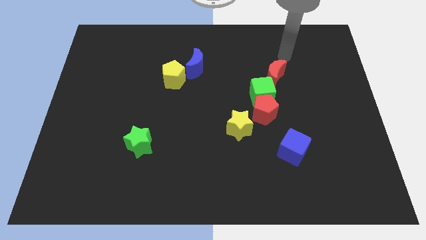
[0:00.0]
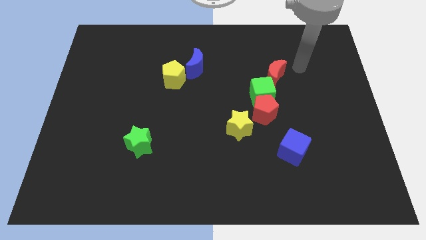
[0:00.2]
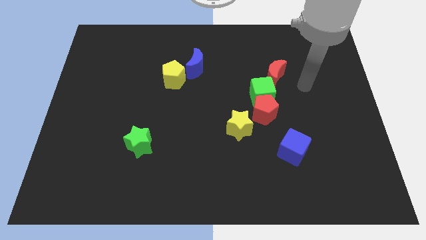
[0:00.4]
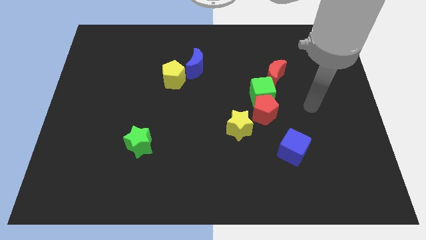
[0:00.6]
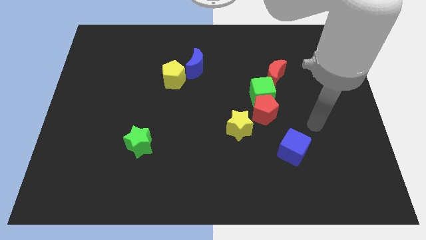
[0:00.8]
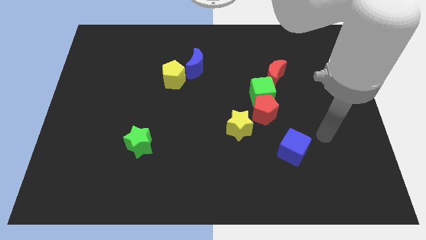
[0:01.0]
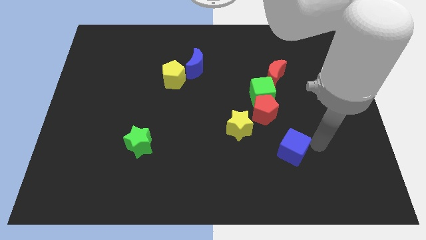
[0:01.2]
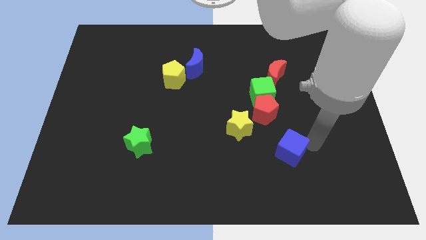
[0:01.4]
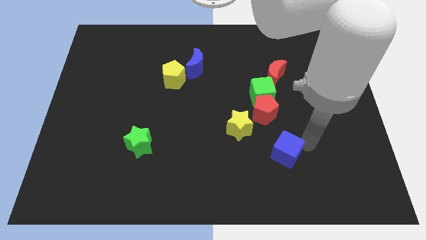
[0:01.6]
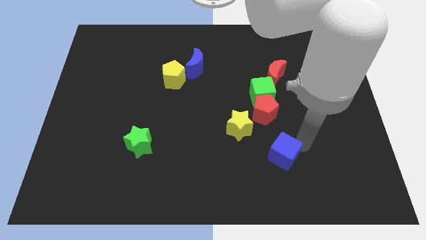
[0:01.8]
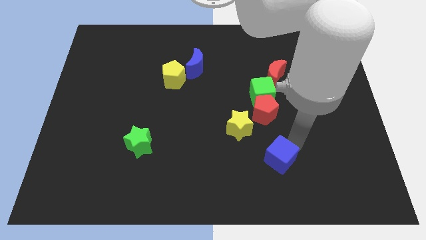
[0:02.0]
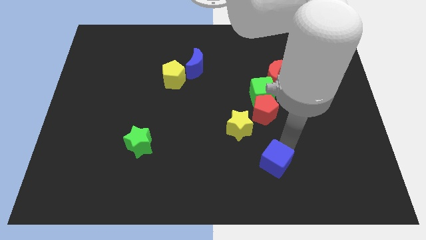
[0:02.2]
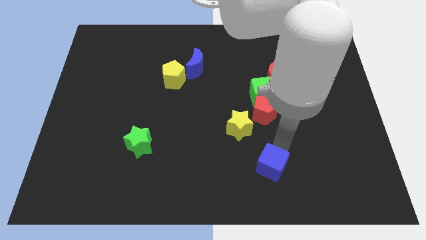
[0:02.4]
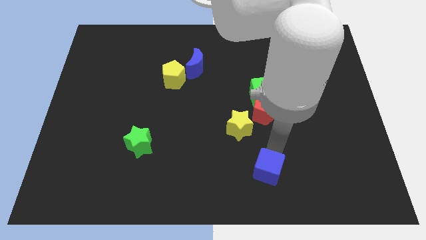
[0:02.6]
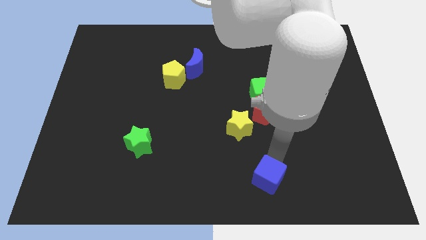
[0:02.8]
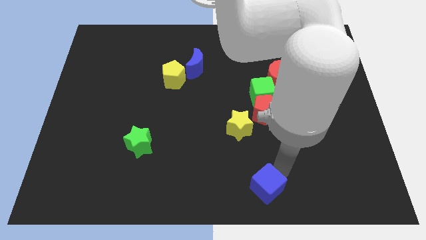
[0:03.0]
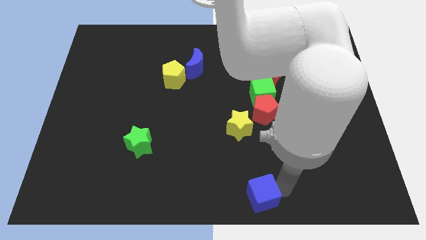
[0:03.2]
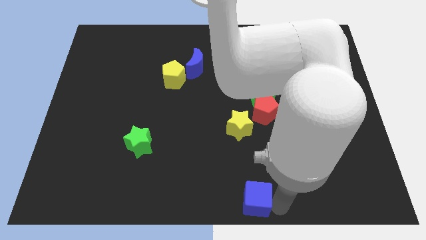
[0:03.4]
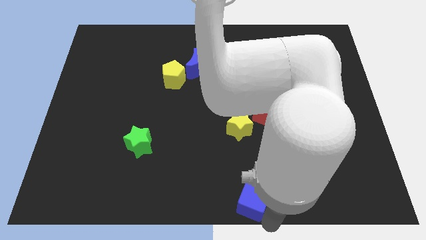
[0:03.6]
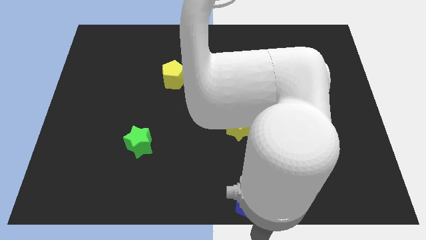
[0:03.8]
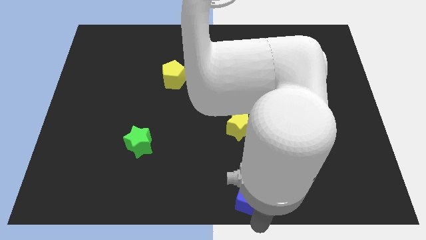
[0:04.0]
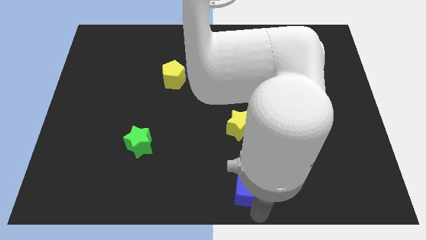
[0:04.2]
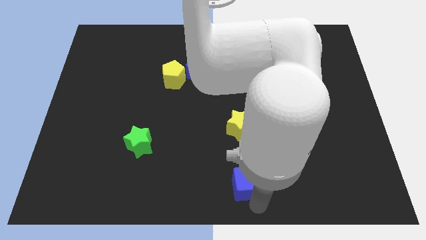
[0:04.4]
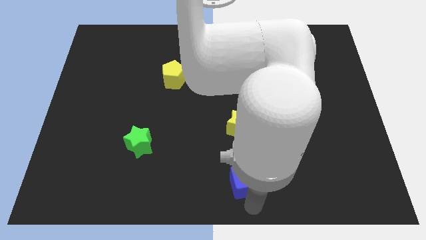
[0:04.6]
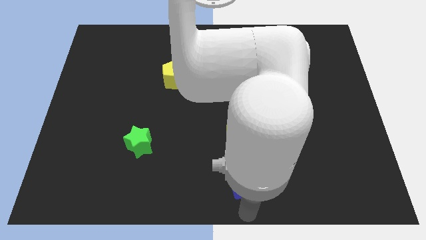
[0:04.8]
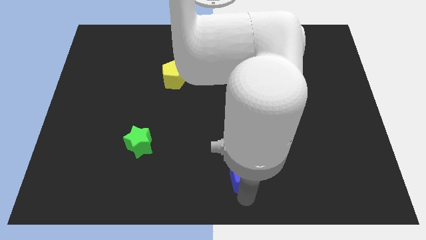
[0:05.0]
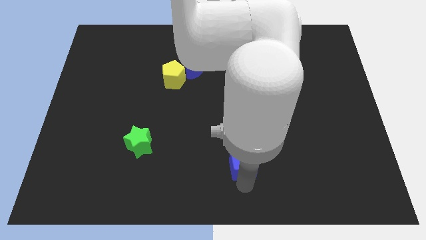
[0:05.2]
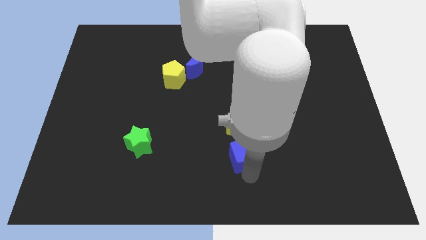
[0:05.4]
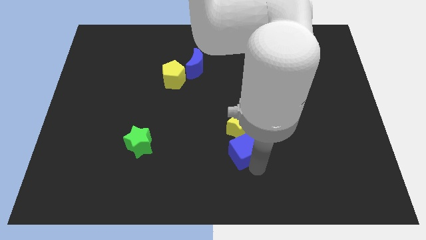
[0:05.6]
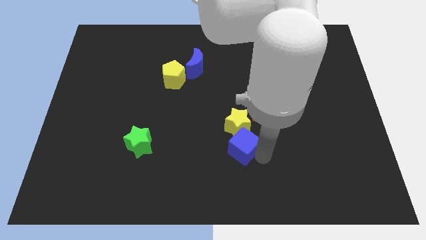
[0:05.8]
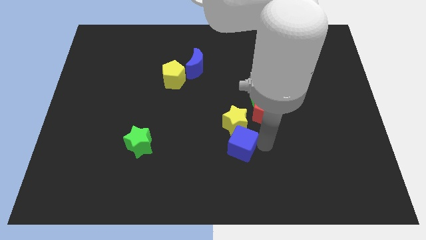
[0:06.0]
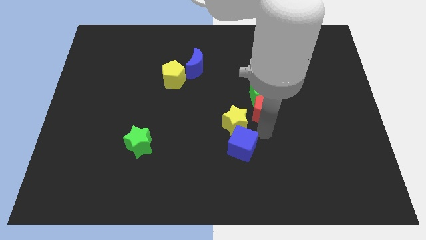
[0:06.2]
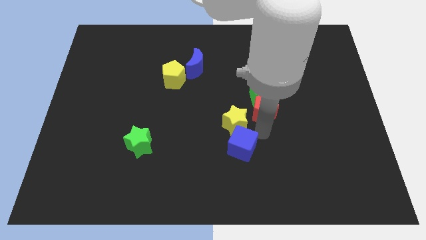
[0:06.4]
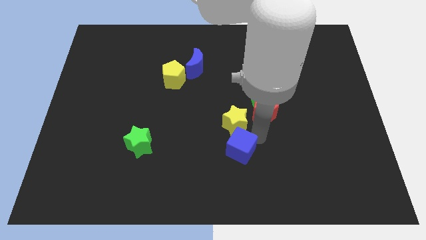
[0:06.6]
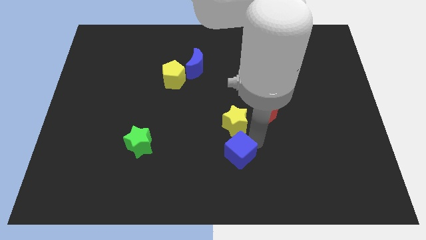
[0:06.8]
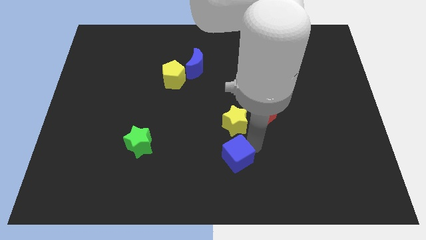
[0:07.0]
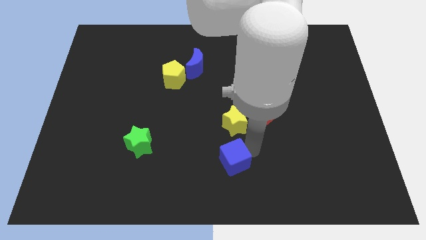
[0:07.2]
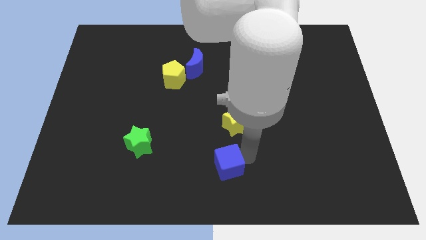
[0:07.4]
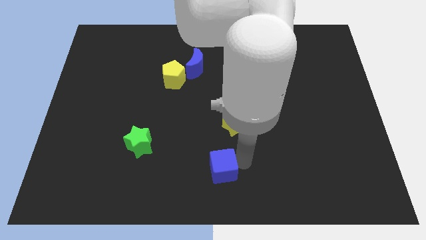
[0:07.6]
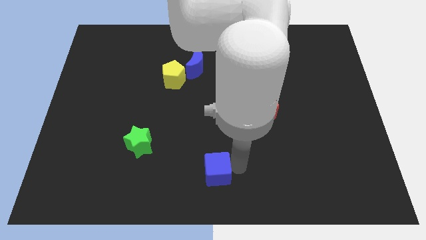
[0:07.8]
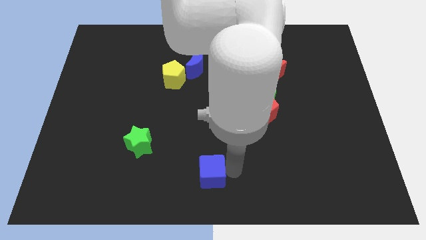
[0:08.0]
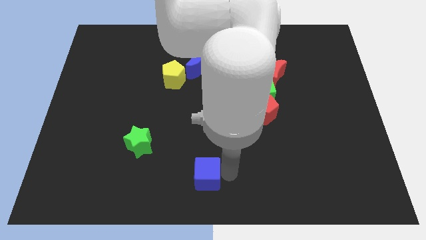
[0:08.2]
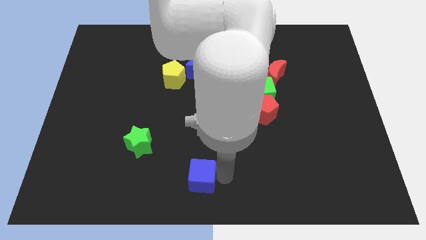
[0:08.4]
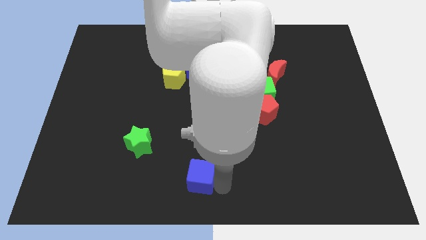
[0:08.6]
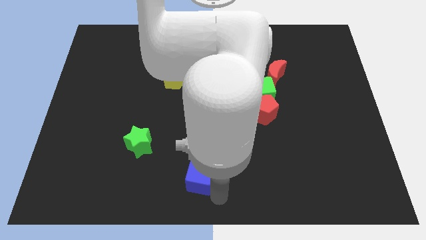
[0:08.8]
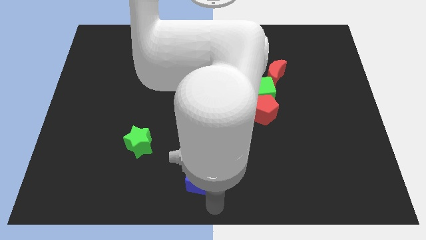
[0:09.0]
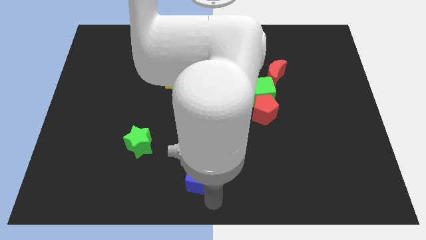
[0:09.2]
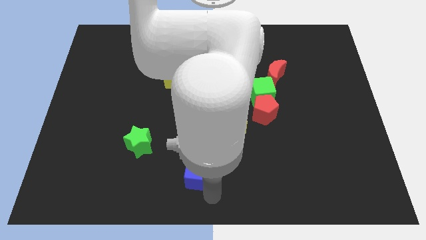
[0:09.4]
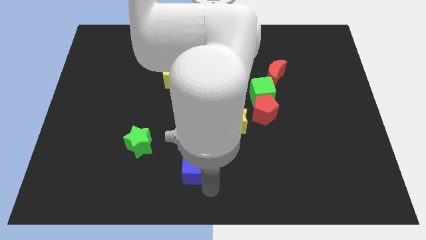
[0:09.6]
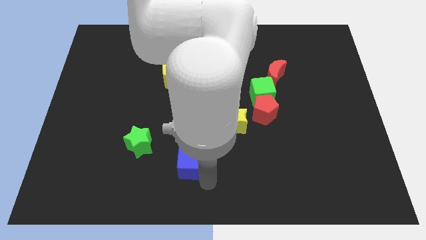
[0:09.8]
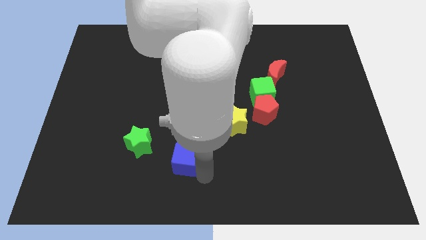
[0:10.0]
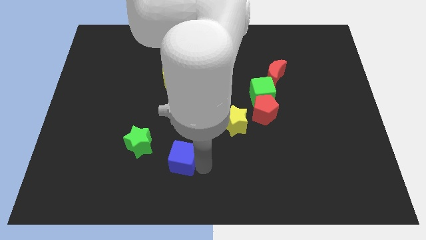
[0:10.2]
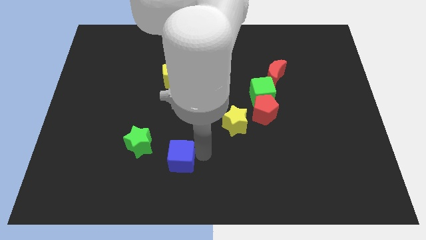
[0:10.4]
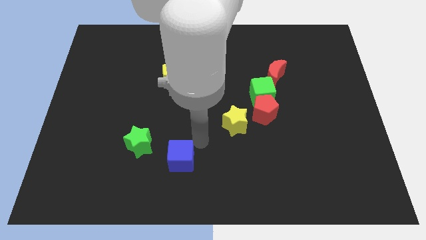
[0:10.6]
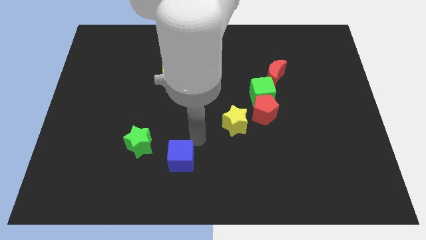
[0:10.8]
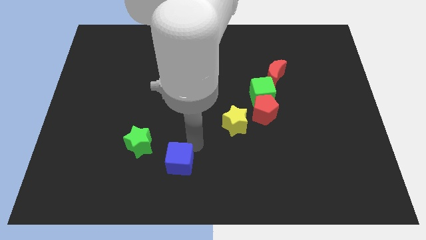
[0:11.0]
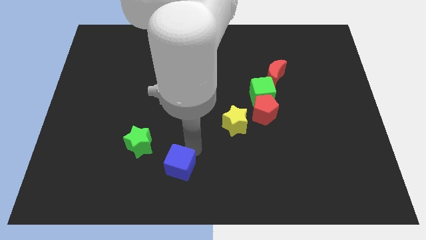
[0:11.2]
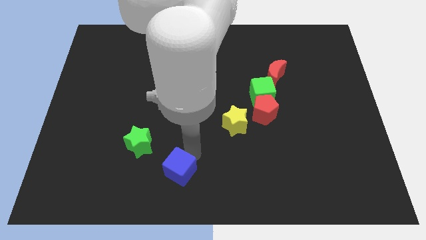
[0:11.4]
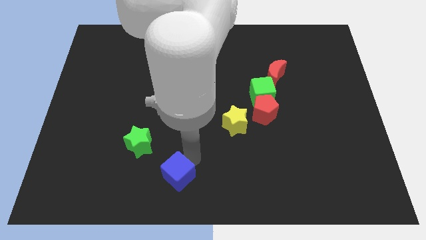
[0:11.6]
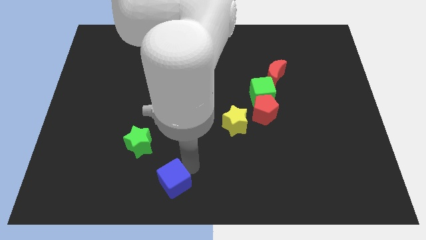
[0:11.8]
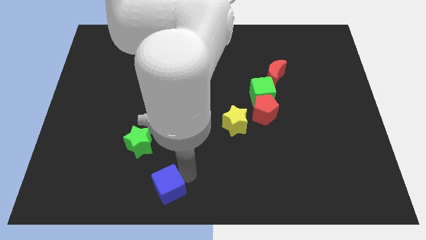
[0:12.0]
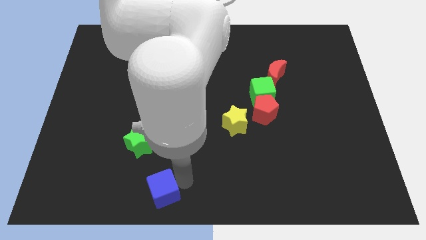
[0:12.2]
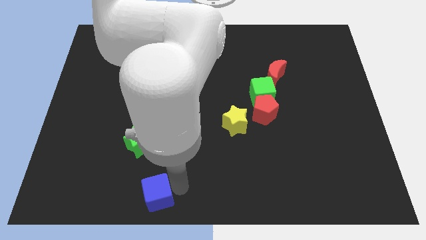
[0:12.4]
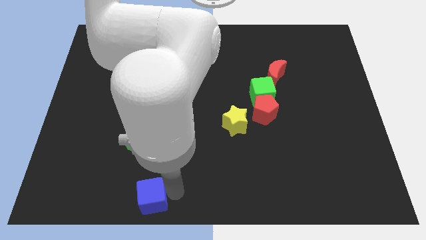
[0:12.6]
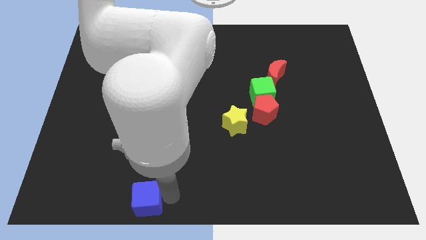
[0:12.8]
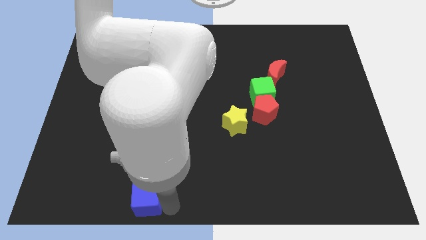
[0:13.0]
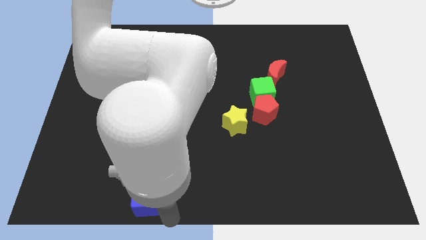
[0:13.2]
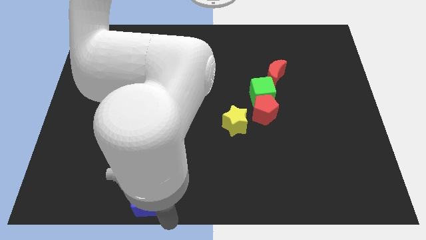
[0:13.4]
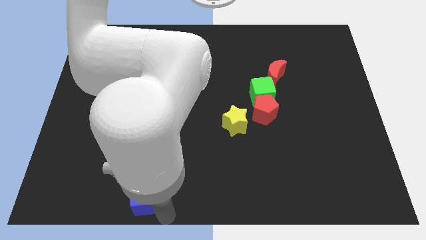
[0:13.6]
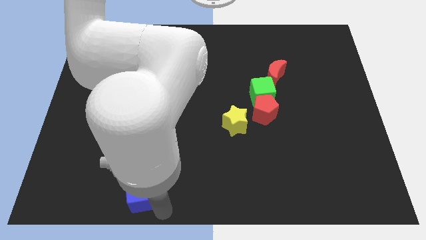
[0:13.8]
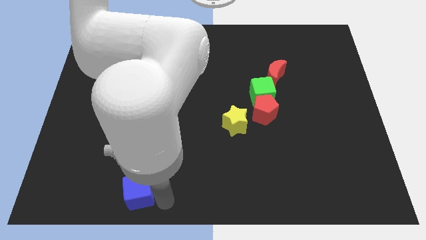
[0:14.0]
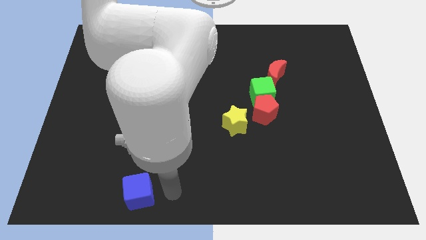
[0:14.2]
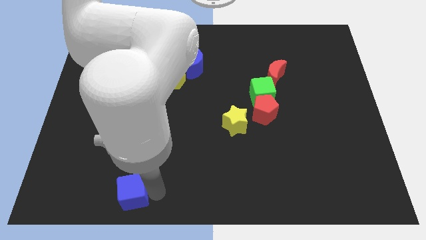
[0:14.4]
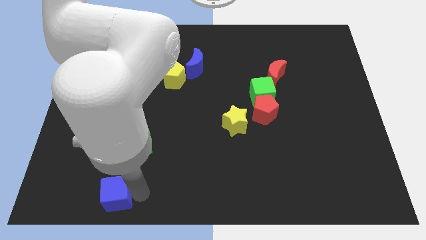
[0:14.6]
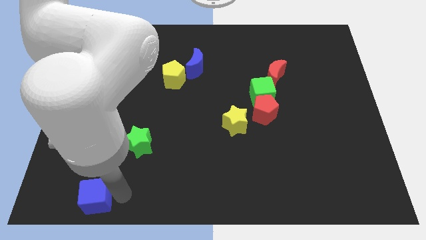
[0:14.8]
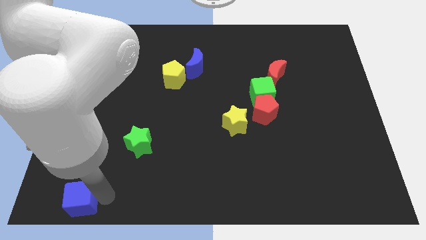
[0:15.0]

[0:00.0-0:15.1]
slide the blue cube to the bottom left corner

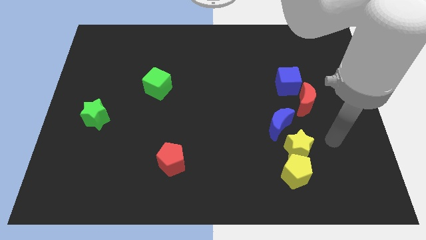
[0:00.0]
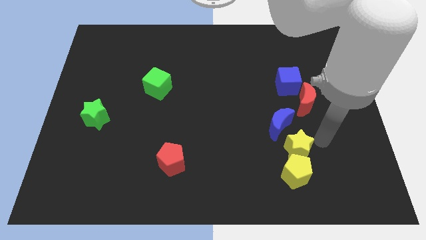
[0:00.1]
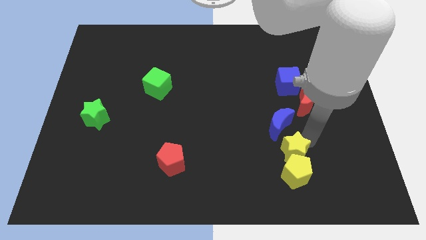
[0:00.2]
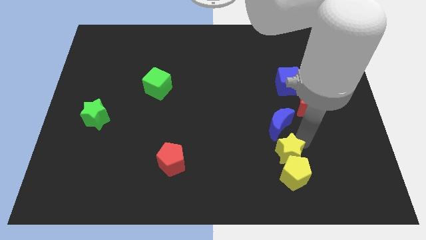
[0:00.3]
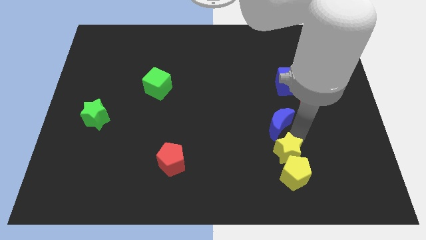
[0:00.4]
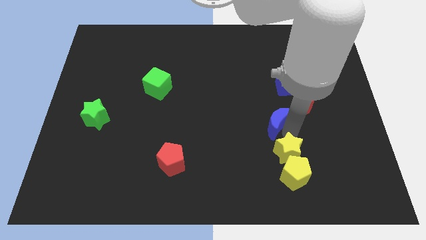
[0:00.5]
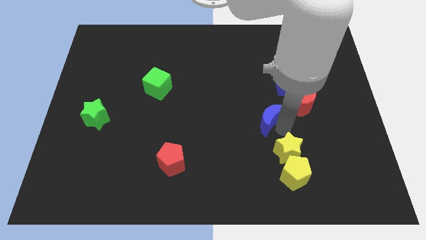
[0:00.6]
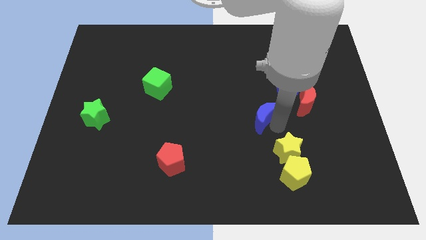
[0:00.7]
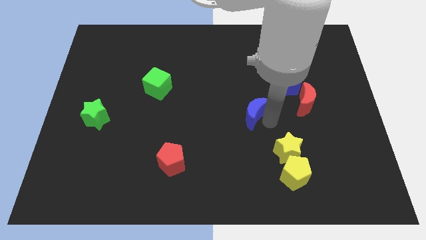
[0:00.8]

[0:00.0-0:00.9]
move the blue moon to the middle
